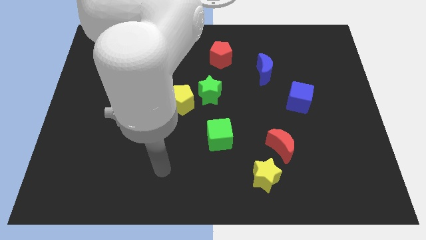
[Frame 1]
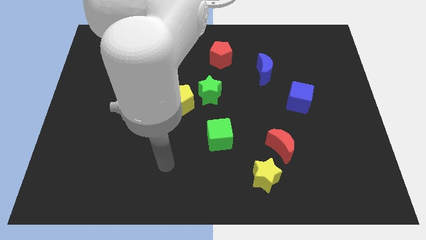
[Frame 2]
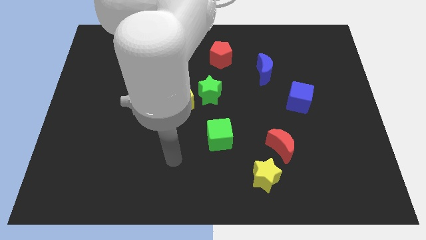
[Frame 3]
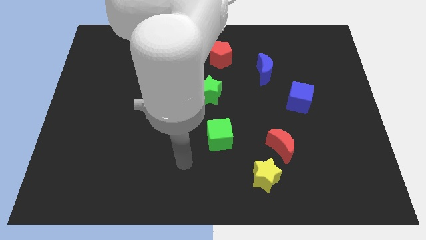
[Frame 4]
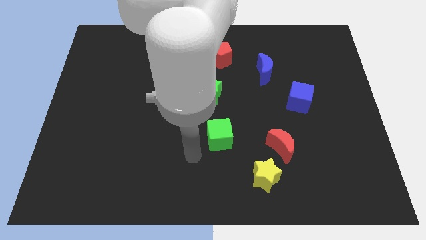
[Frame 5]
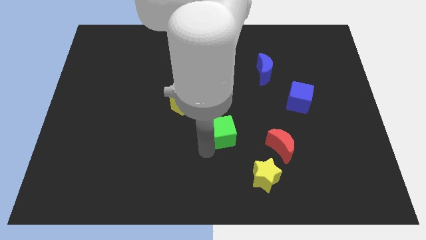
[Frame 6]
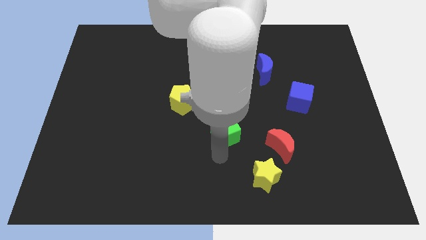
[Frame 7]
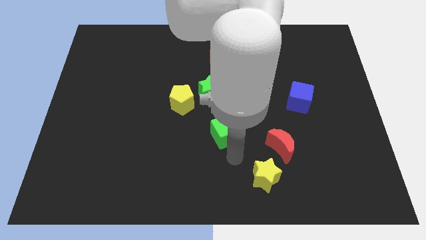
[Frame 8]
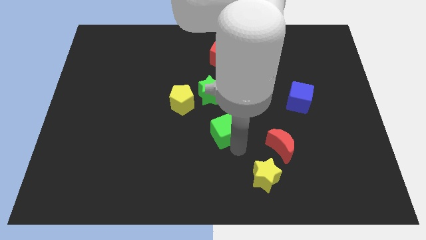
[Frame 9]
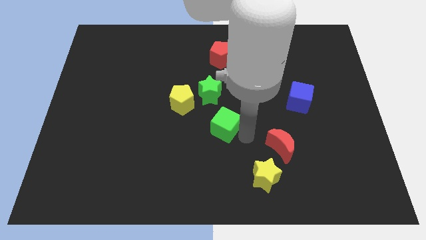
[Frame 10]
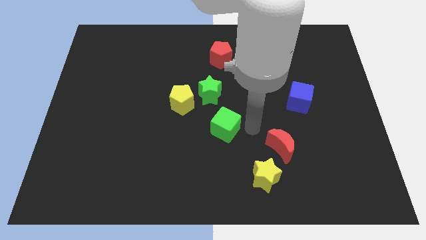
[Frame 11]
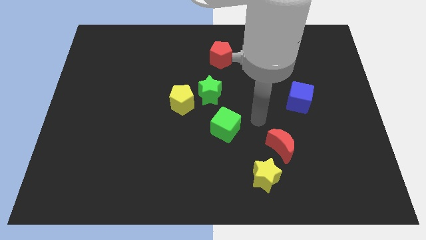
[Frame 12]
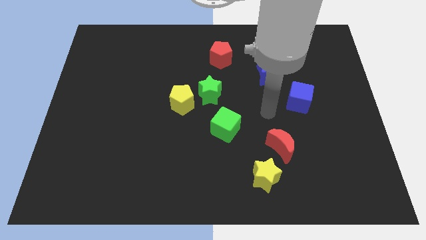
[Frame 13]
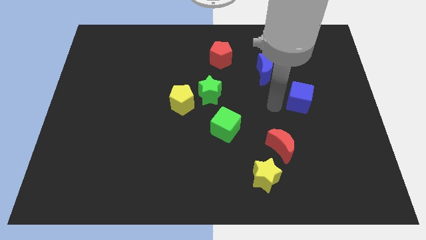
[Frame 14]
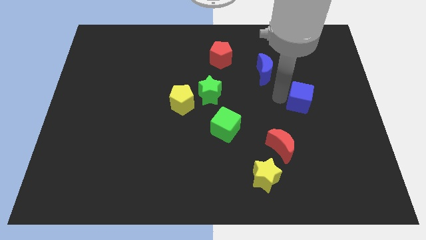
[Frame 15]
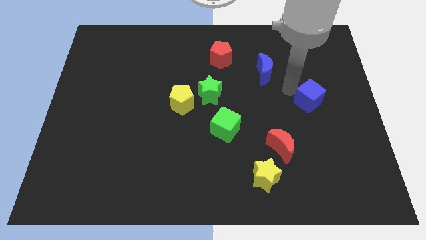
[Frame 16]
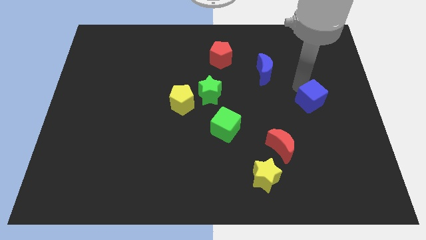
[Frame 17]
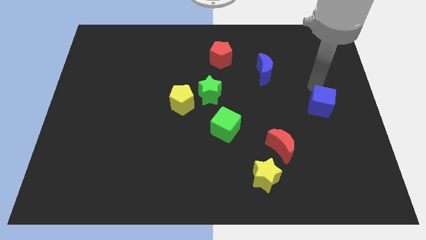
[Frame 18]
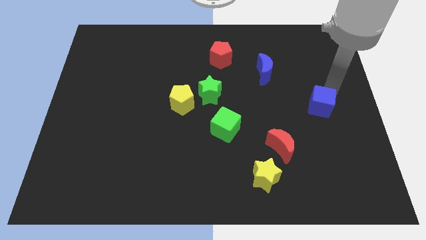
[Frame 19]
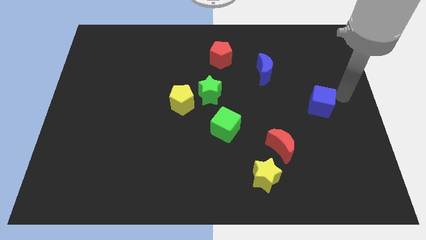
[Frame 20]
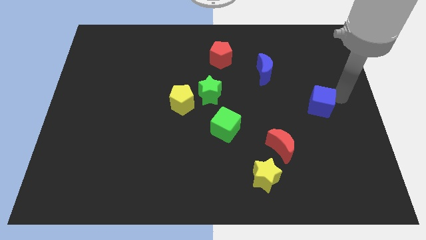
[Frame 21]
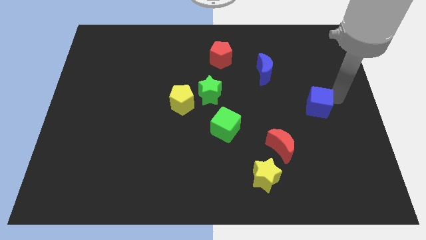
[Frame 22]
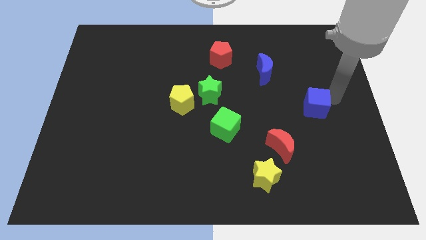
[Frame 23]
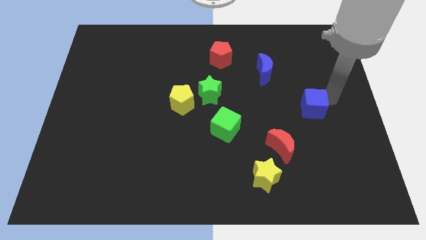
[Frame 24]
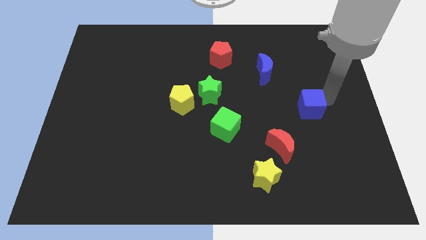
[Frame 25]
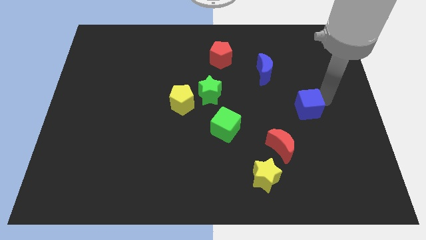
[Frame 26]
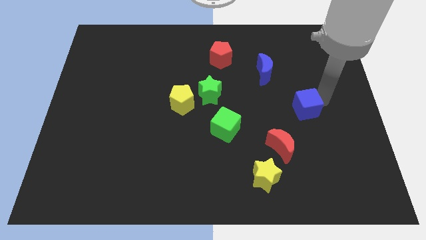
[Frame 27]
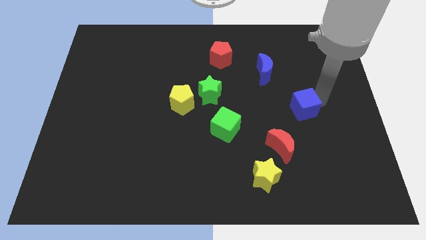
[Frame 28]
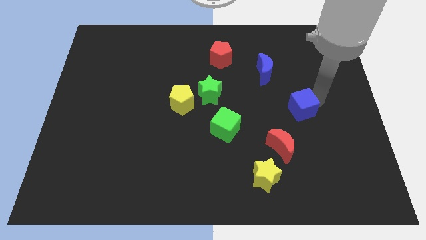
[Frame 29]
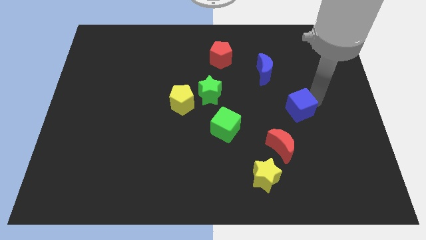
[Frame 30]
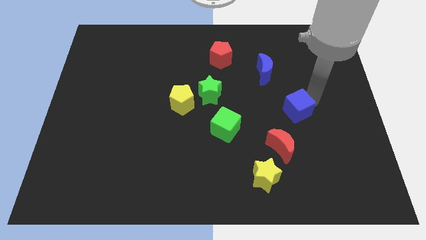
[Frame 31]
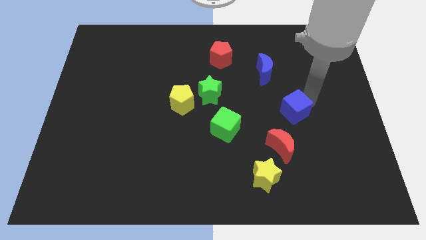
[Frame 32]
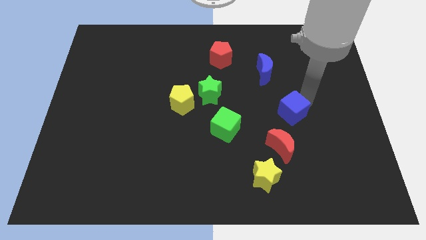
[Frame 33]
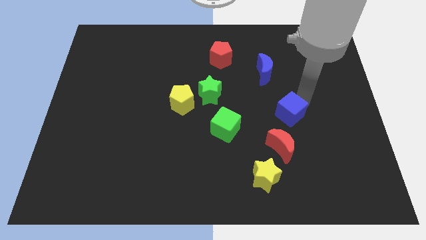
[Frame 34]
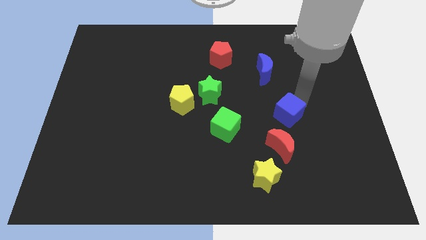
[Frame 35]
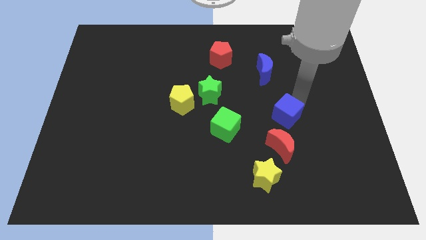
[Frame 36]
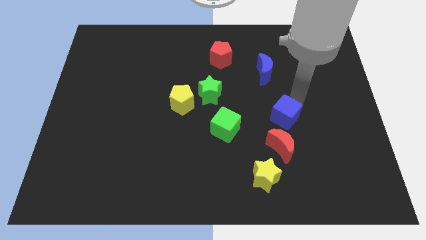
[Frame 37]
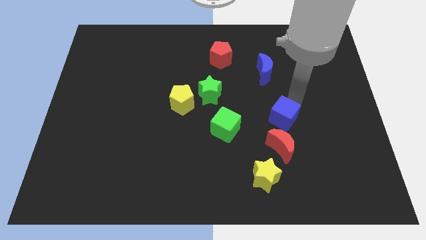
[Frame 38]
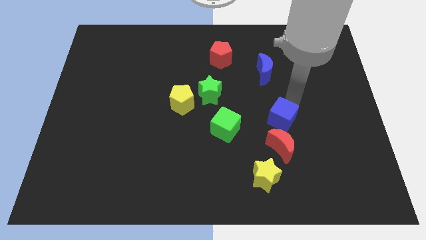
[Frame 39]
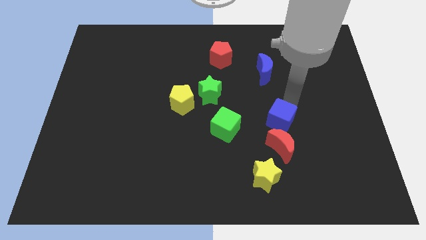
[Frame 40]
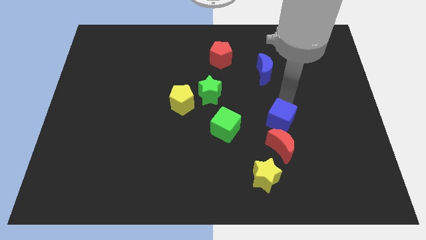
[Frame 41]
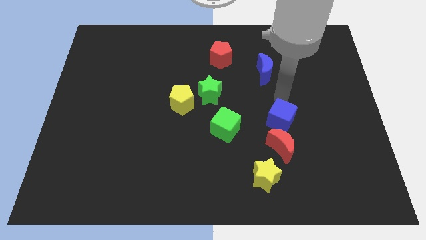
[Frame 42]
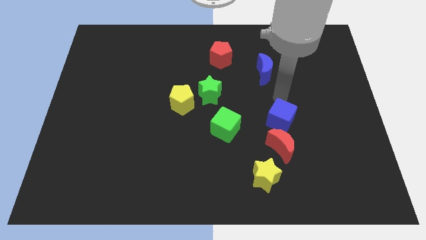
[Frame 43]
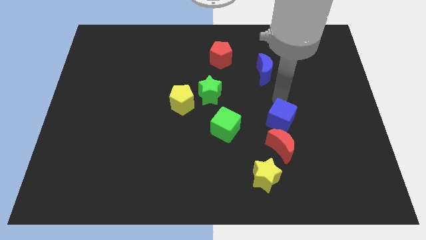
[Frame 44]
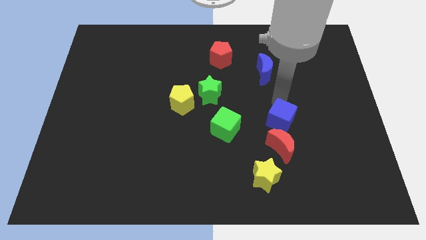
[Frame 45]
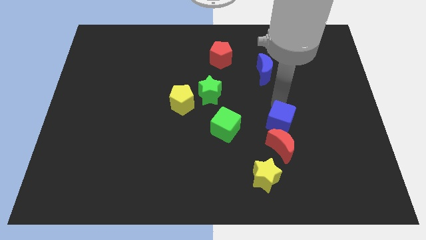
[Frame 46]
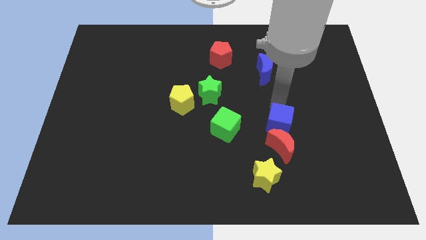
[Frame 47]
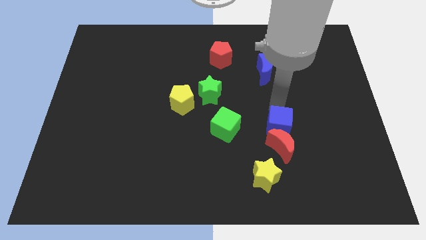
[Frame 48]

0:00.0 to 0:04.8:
push the blue cube next to the red moon

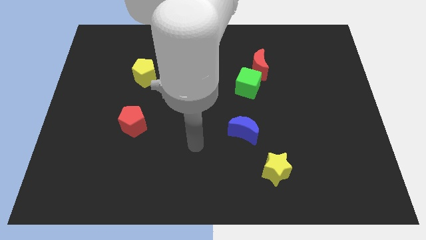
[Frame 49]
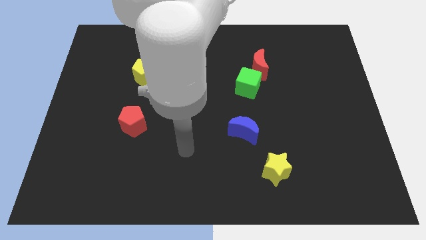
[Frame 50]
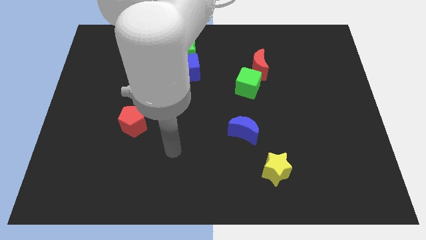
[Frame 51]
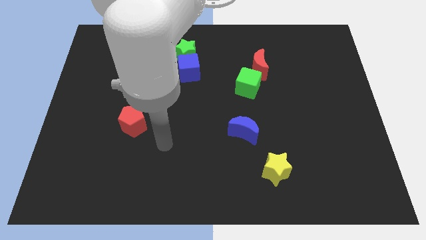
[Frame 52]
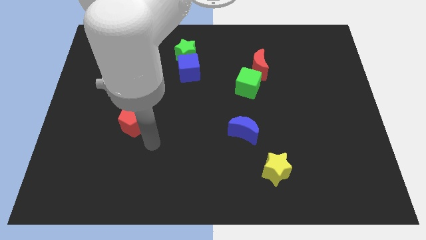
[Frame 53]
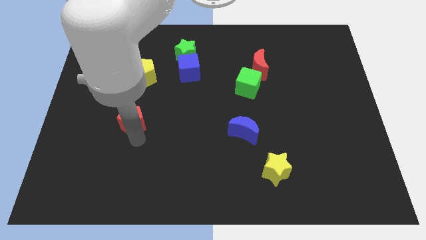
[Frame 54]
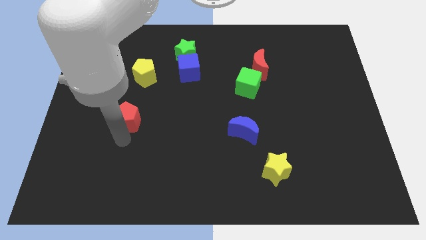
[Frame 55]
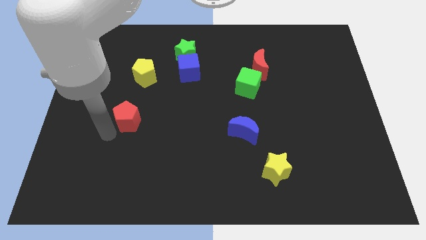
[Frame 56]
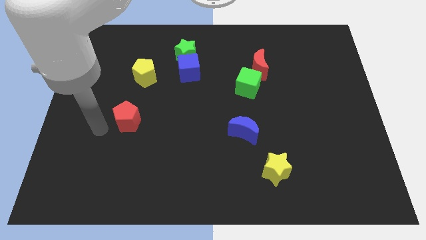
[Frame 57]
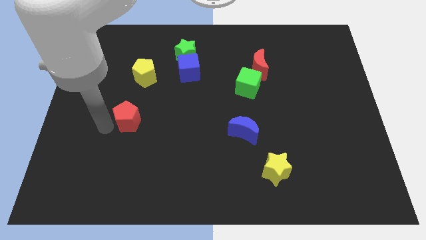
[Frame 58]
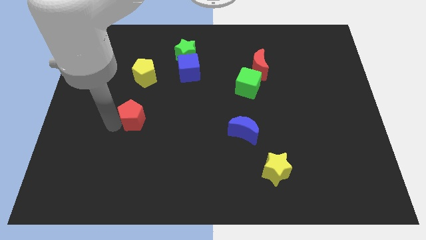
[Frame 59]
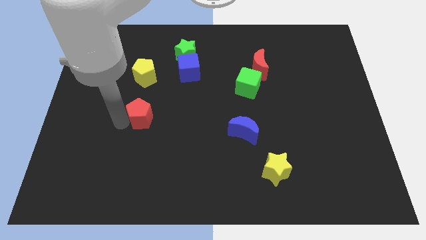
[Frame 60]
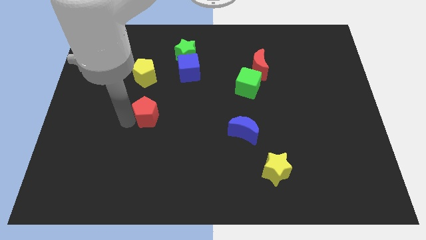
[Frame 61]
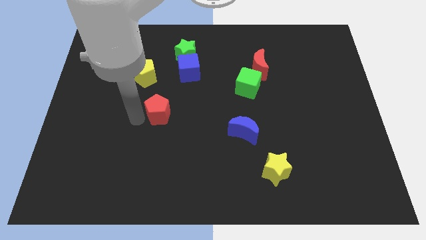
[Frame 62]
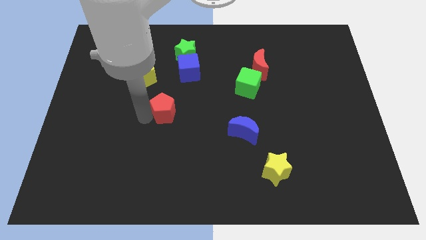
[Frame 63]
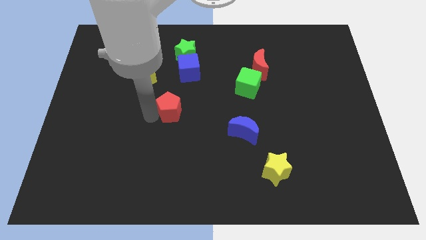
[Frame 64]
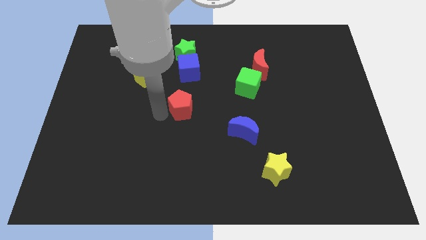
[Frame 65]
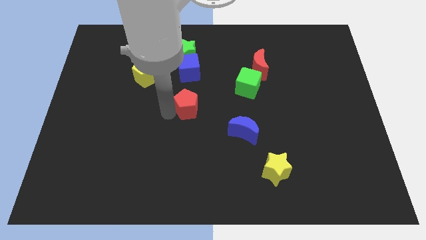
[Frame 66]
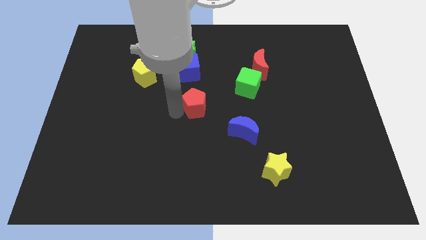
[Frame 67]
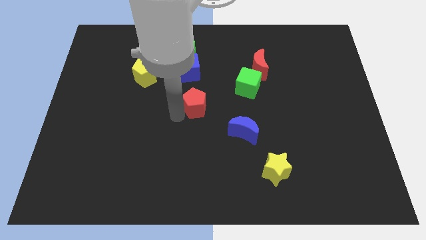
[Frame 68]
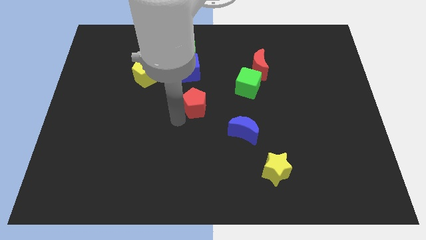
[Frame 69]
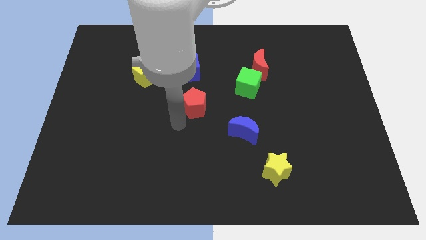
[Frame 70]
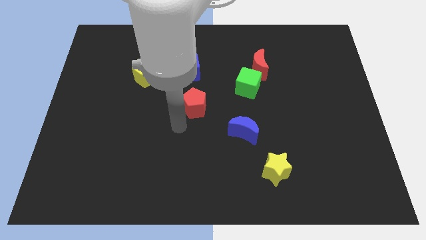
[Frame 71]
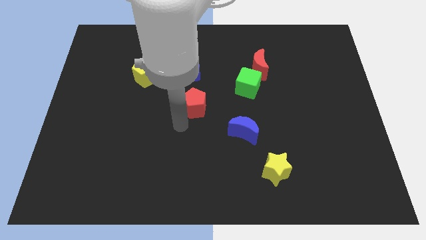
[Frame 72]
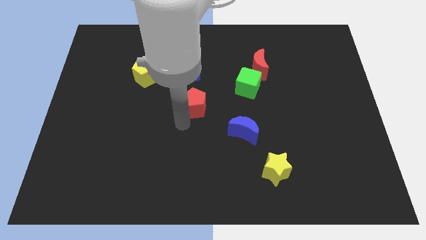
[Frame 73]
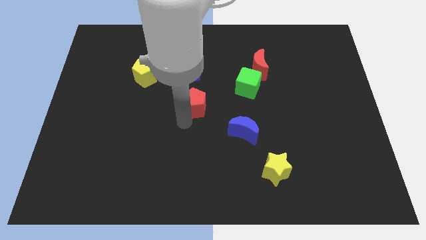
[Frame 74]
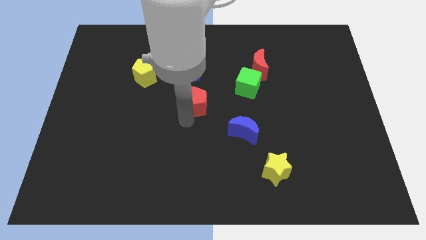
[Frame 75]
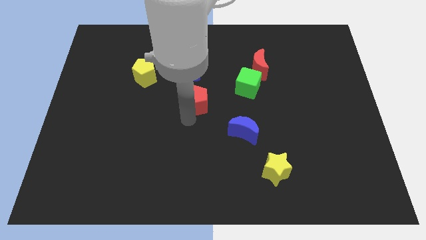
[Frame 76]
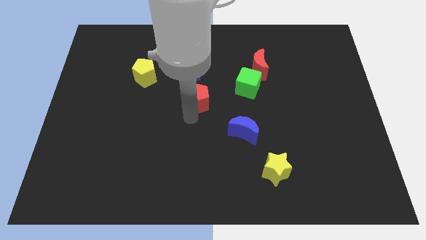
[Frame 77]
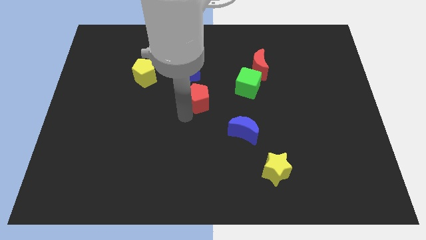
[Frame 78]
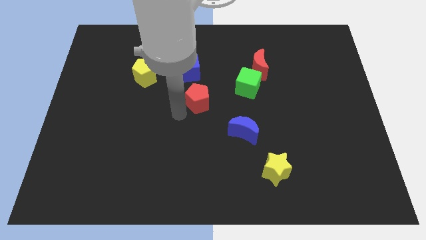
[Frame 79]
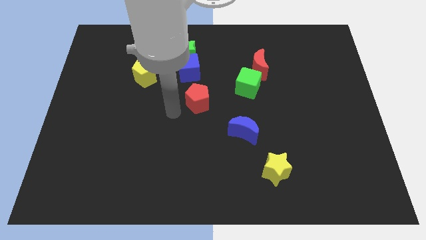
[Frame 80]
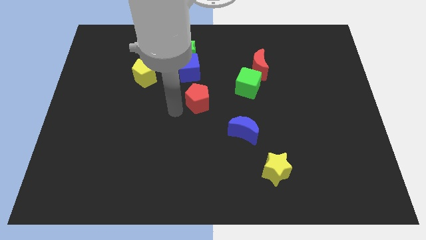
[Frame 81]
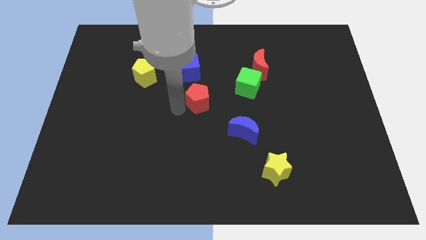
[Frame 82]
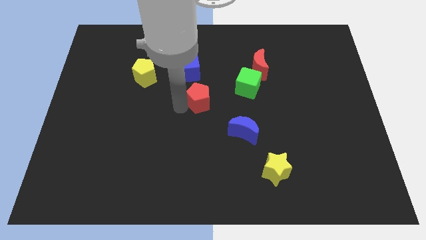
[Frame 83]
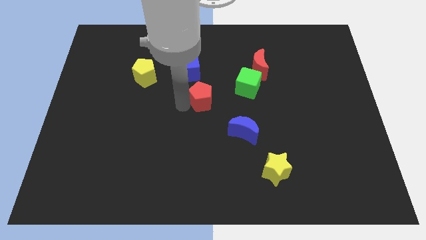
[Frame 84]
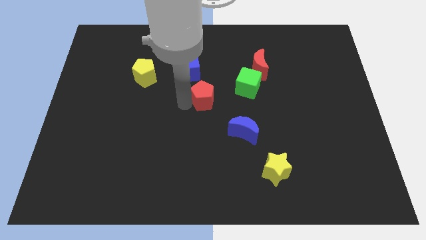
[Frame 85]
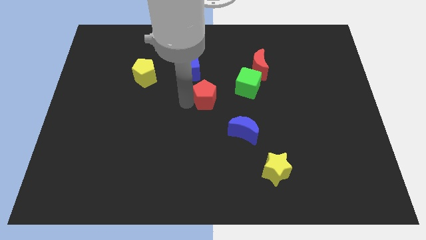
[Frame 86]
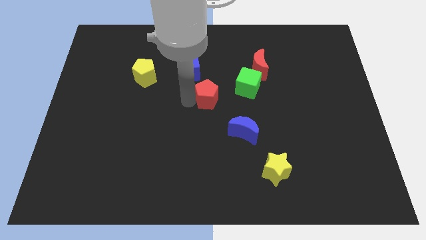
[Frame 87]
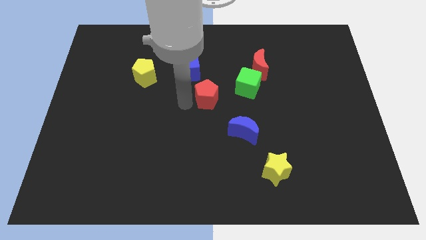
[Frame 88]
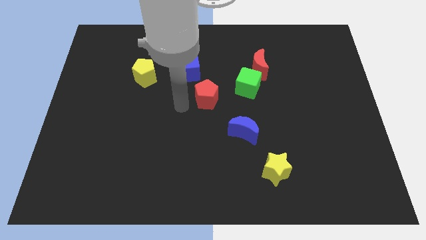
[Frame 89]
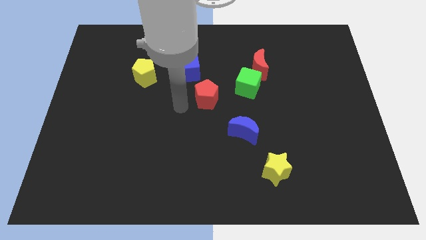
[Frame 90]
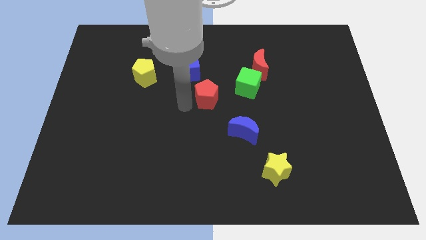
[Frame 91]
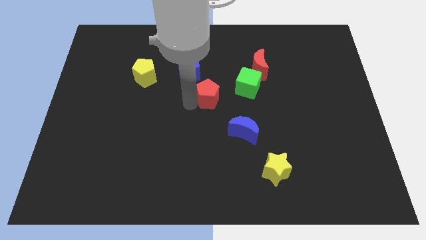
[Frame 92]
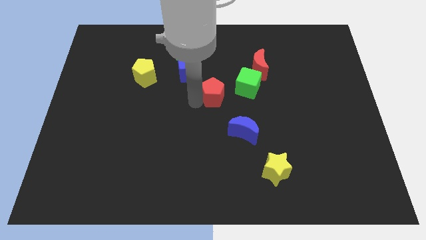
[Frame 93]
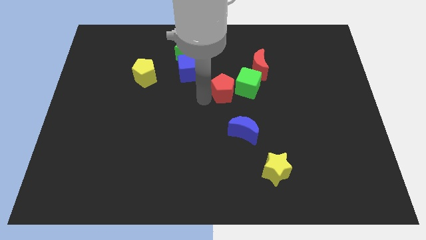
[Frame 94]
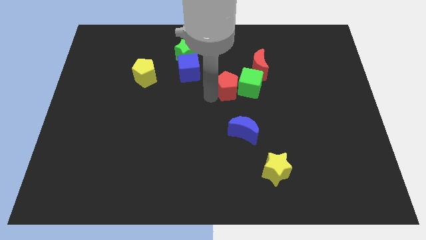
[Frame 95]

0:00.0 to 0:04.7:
push the red pentagon towards the green cube
